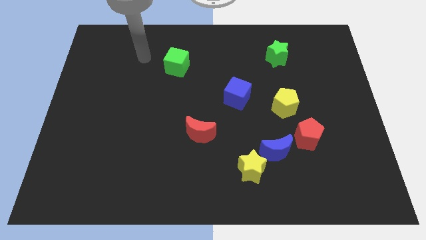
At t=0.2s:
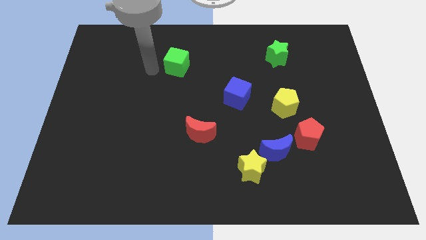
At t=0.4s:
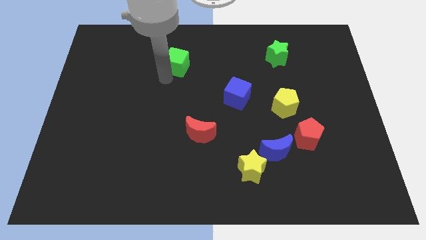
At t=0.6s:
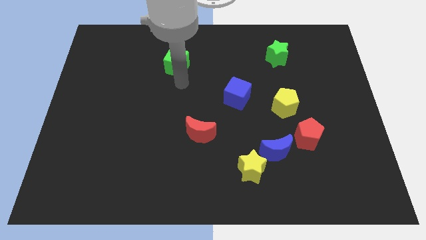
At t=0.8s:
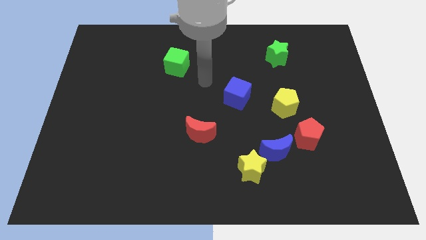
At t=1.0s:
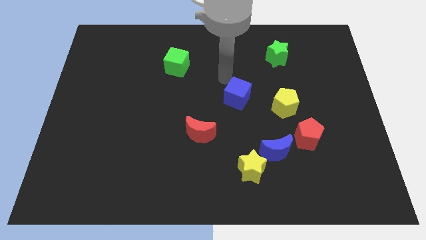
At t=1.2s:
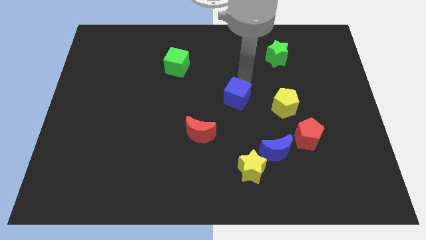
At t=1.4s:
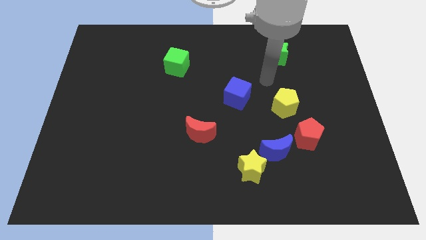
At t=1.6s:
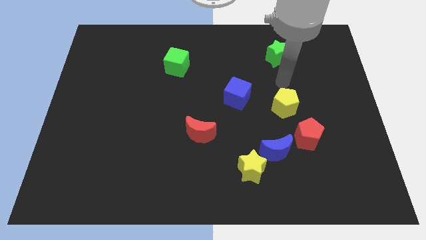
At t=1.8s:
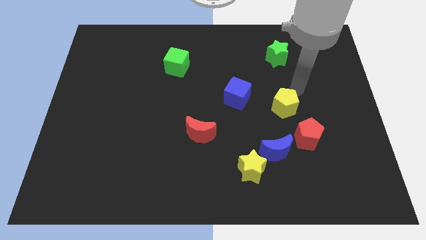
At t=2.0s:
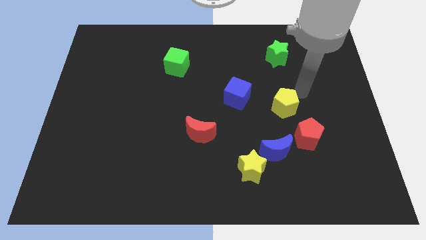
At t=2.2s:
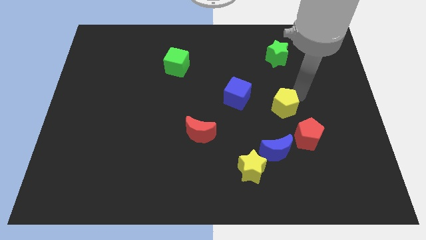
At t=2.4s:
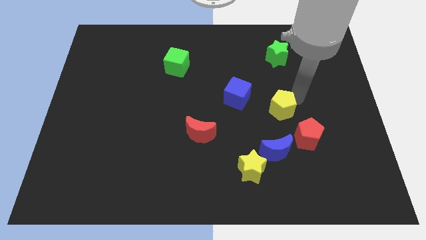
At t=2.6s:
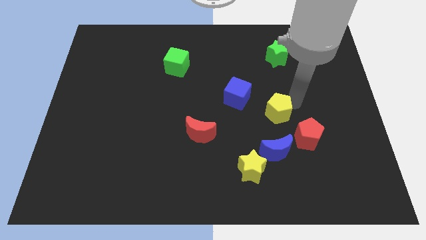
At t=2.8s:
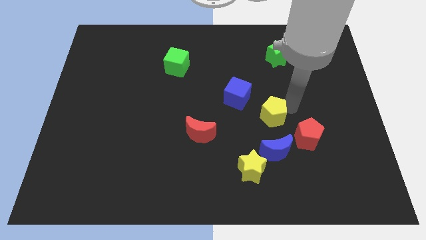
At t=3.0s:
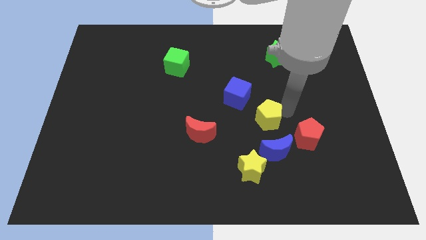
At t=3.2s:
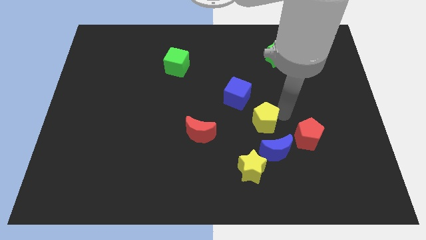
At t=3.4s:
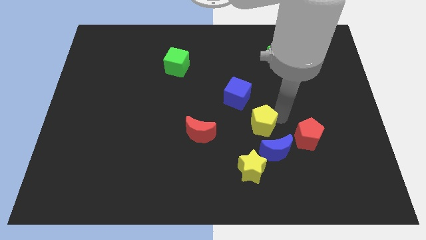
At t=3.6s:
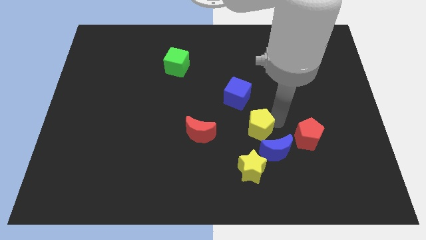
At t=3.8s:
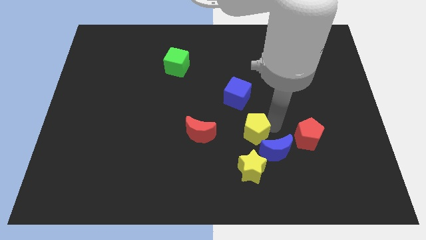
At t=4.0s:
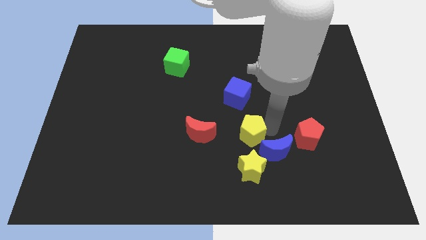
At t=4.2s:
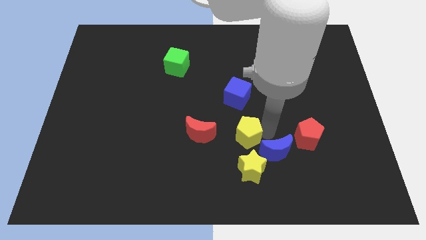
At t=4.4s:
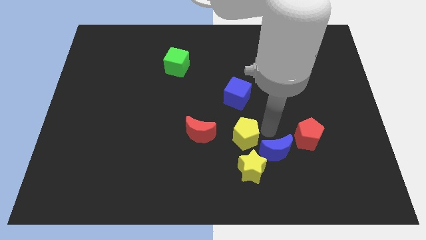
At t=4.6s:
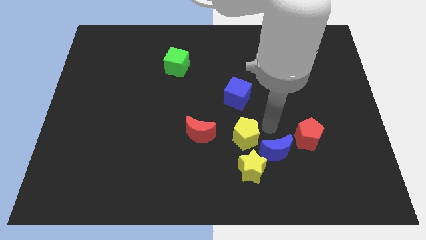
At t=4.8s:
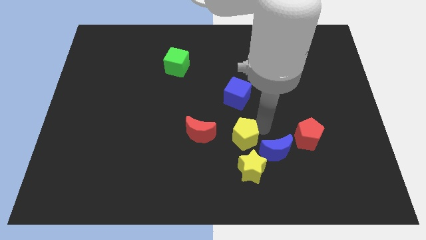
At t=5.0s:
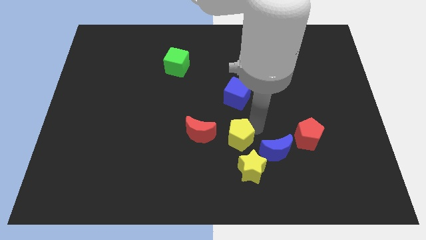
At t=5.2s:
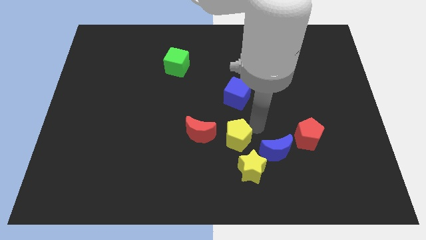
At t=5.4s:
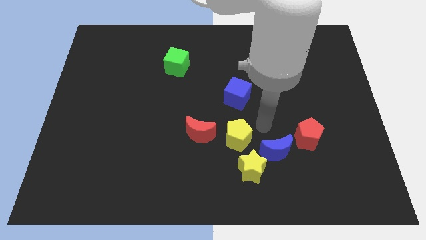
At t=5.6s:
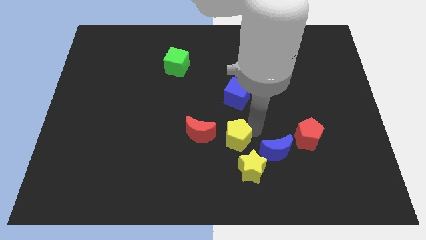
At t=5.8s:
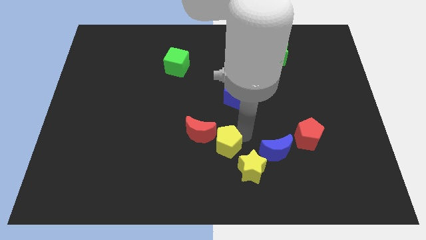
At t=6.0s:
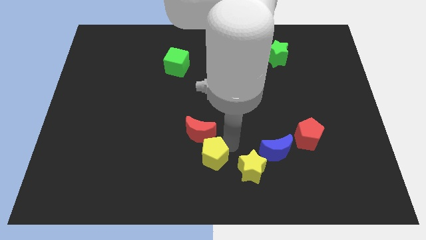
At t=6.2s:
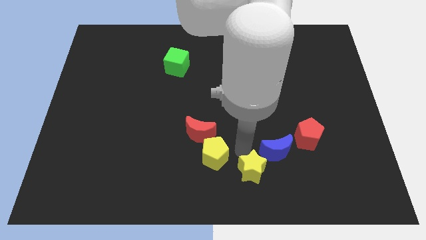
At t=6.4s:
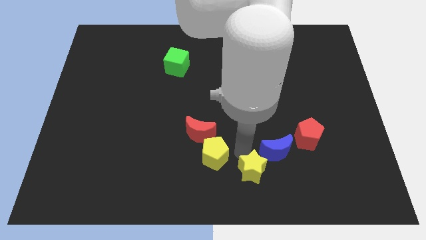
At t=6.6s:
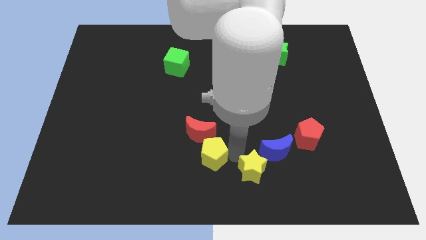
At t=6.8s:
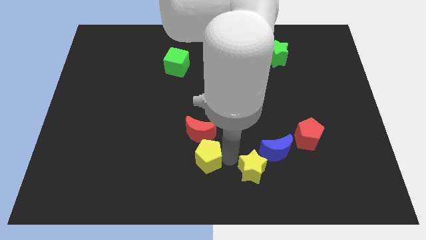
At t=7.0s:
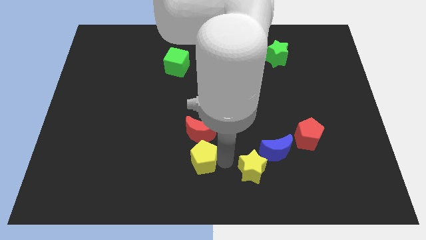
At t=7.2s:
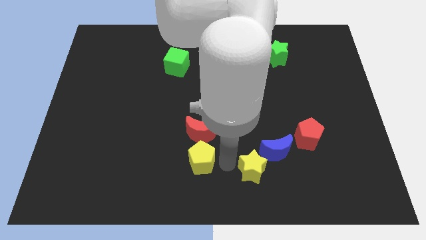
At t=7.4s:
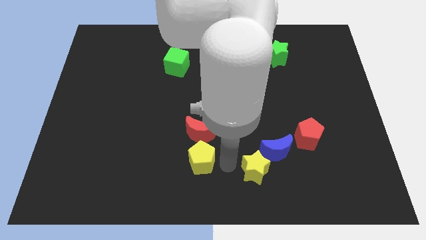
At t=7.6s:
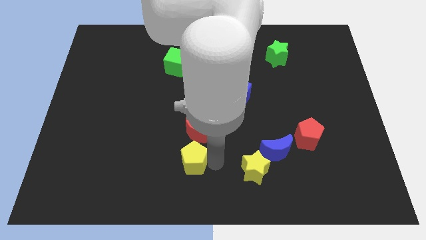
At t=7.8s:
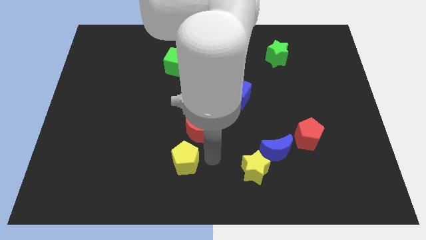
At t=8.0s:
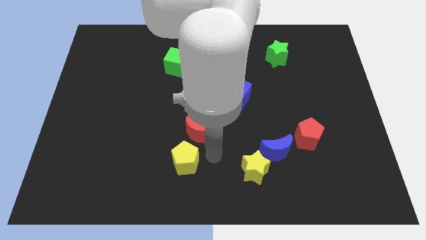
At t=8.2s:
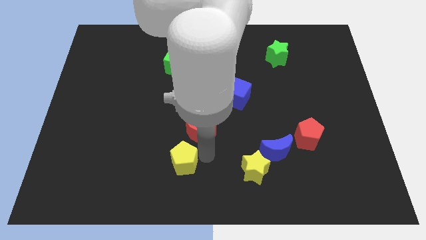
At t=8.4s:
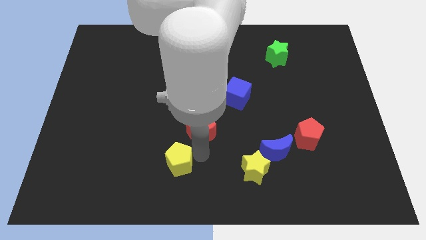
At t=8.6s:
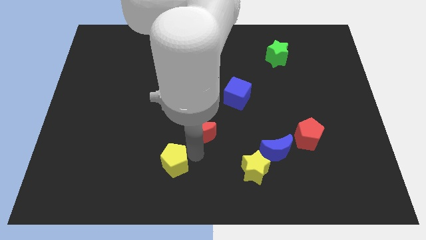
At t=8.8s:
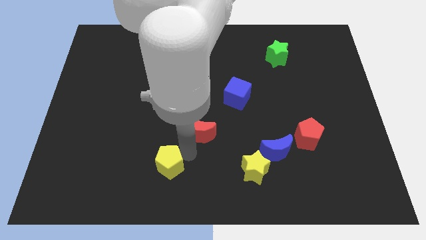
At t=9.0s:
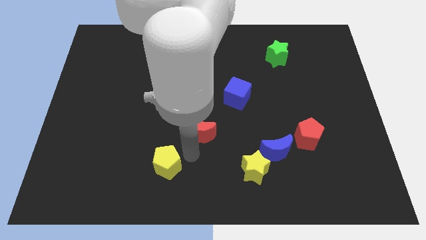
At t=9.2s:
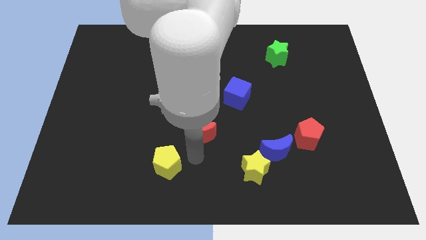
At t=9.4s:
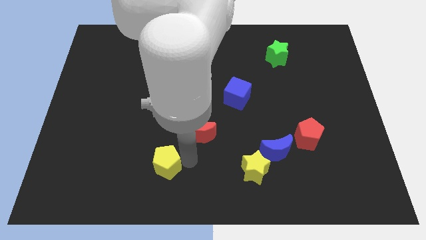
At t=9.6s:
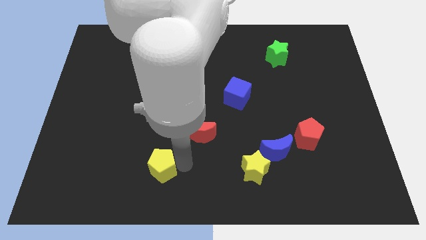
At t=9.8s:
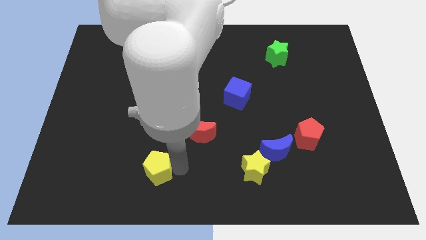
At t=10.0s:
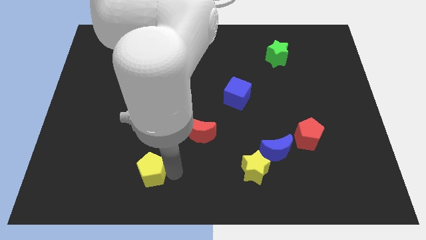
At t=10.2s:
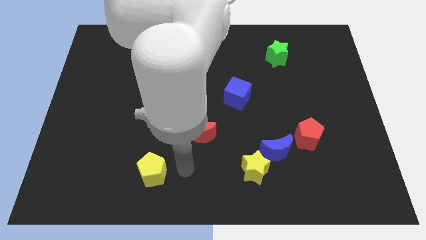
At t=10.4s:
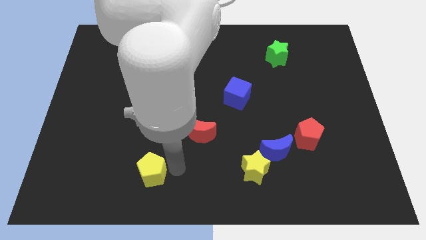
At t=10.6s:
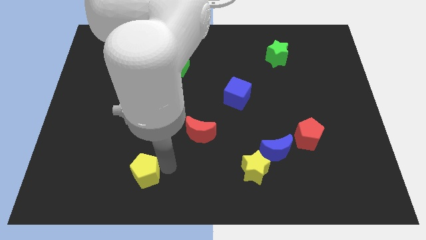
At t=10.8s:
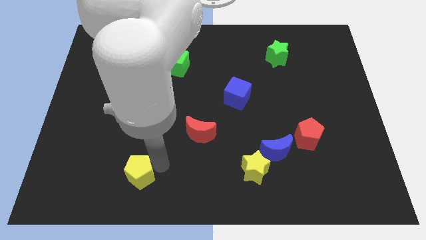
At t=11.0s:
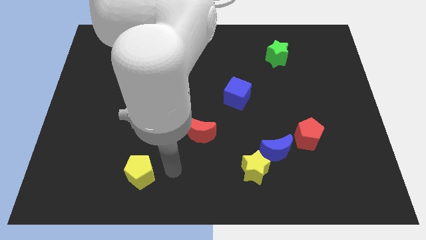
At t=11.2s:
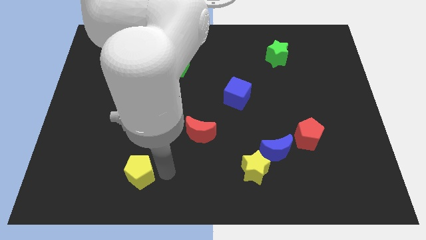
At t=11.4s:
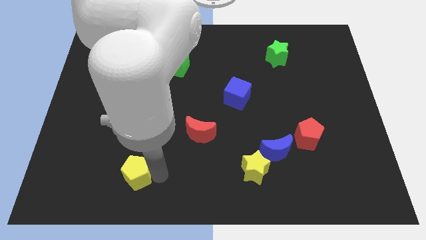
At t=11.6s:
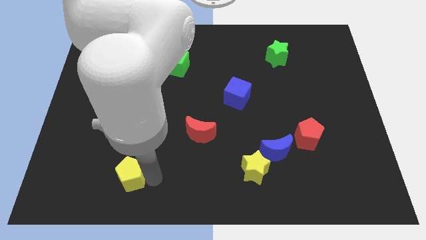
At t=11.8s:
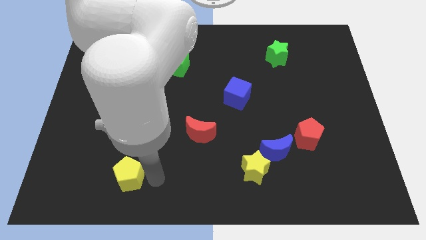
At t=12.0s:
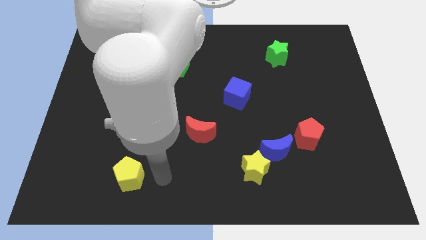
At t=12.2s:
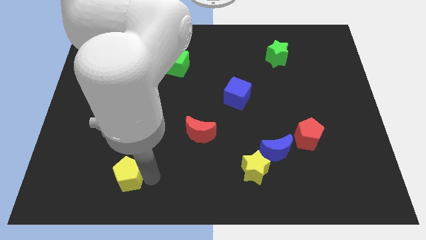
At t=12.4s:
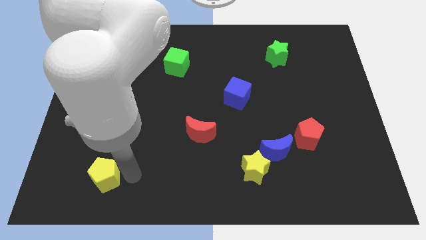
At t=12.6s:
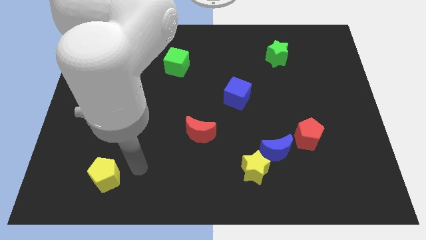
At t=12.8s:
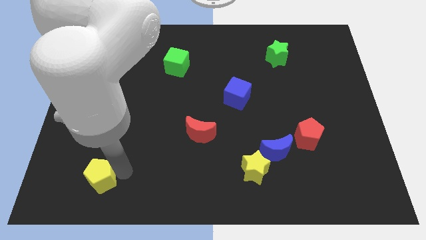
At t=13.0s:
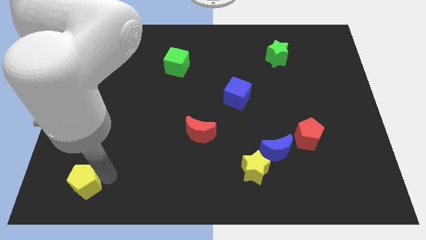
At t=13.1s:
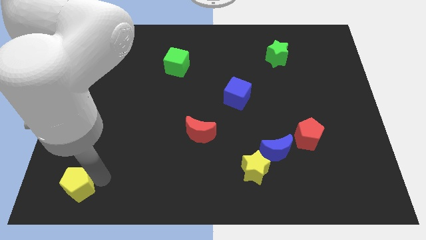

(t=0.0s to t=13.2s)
slide the yellow pentagon to the bottom left

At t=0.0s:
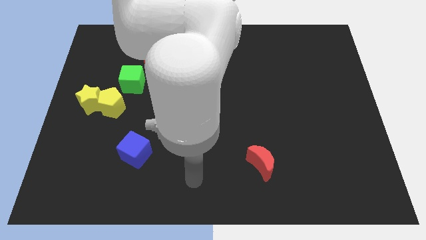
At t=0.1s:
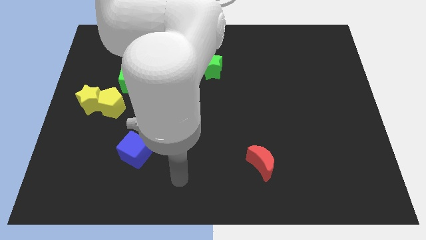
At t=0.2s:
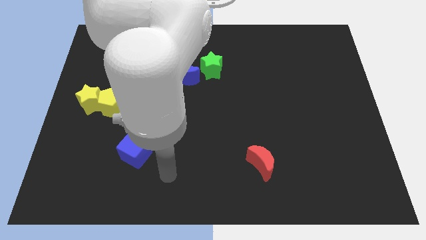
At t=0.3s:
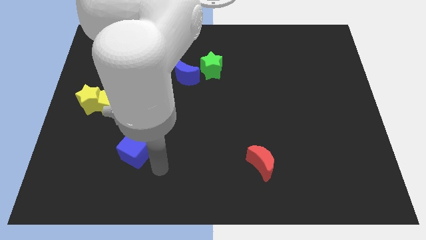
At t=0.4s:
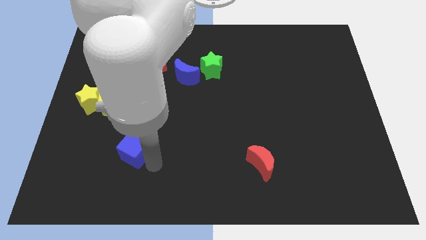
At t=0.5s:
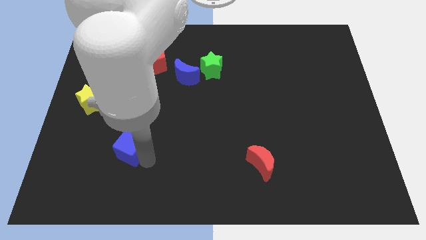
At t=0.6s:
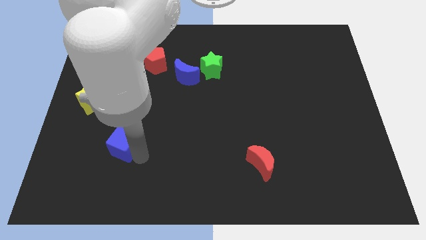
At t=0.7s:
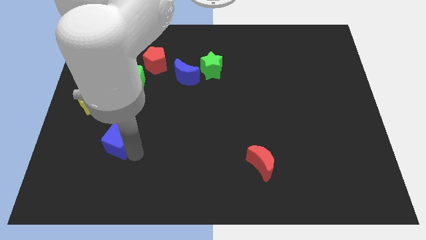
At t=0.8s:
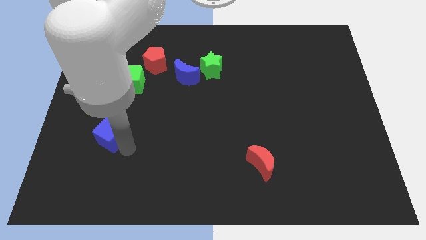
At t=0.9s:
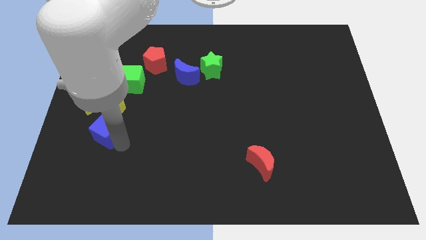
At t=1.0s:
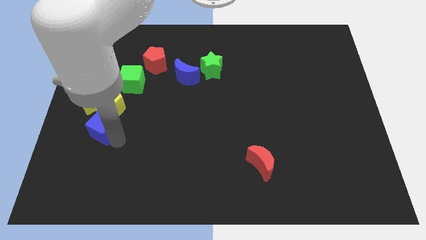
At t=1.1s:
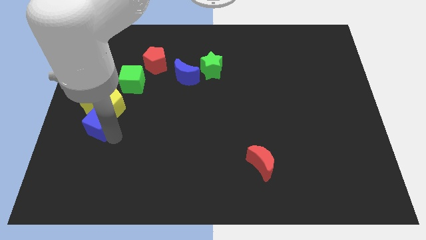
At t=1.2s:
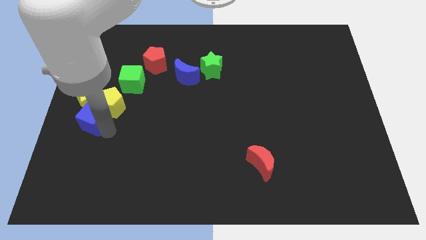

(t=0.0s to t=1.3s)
move the blue cube to the center left
